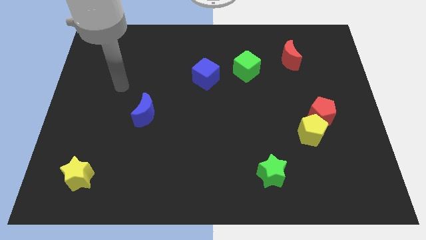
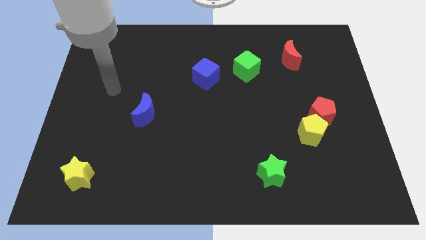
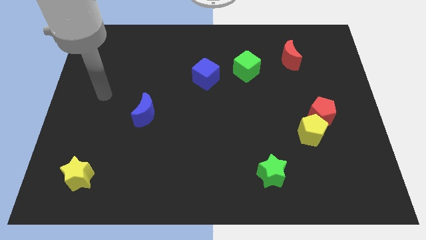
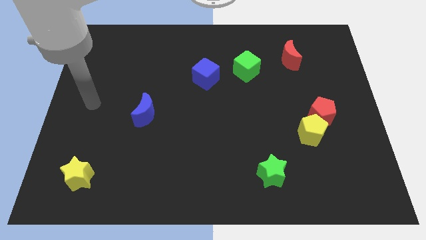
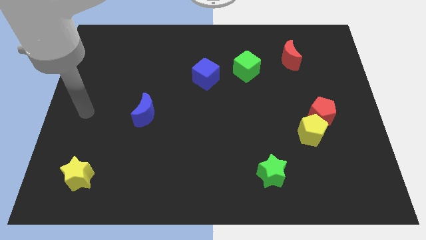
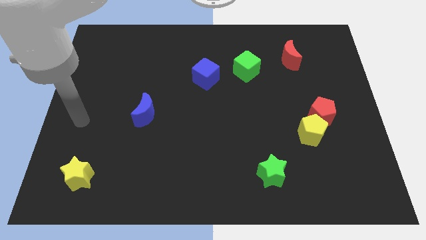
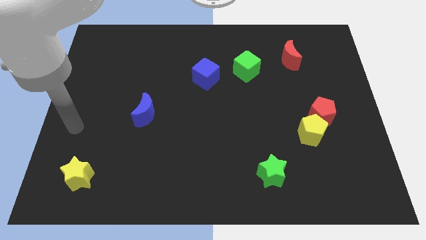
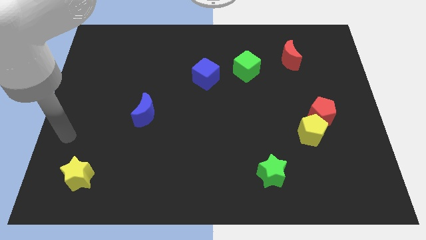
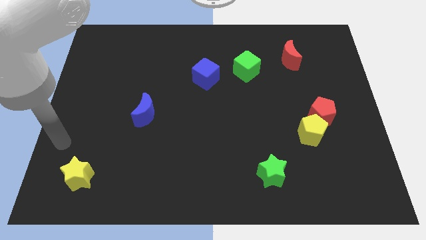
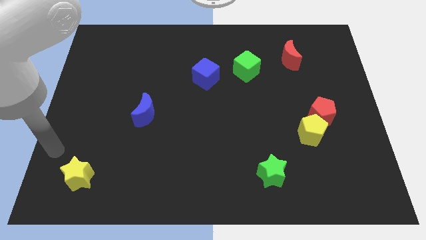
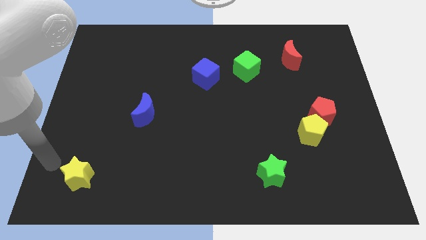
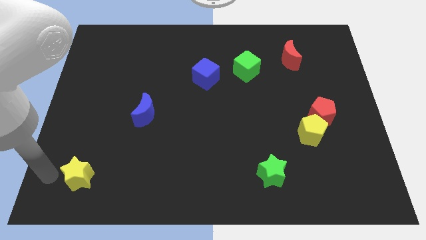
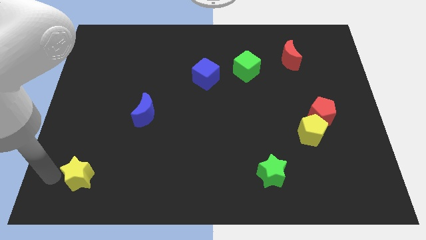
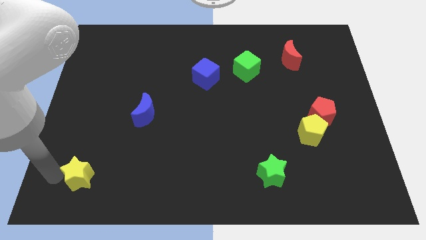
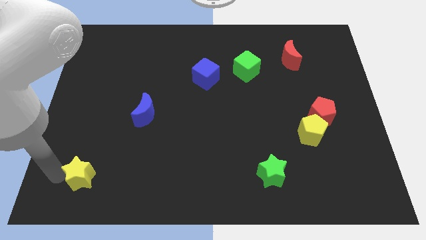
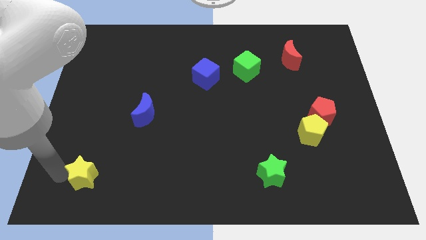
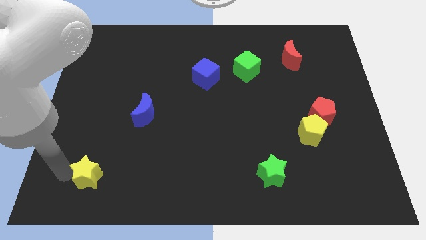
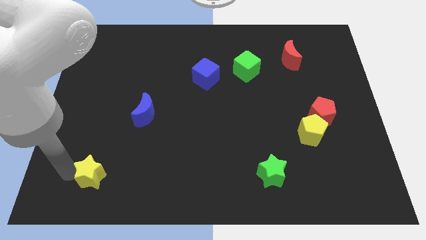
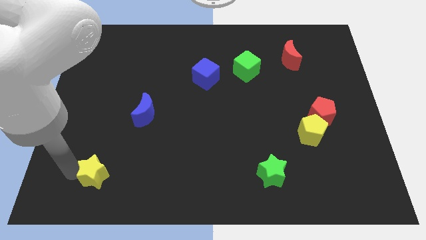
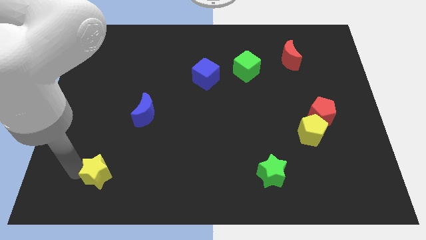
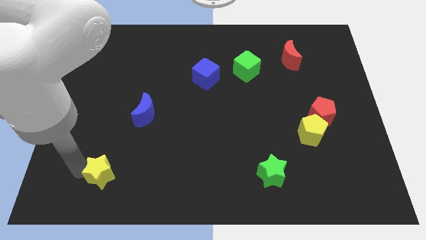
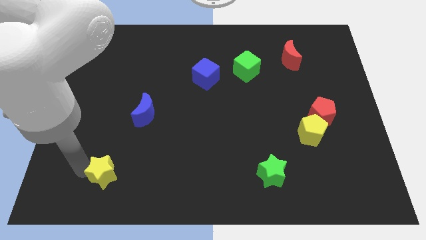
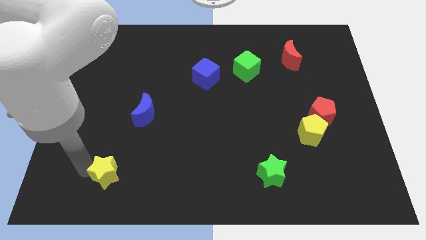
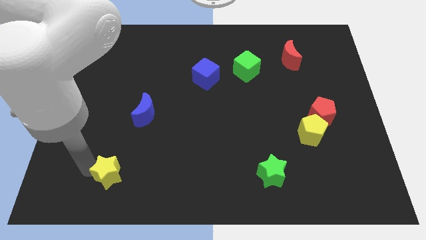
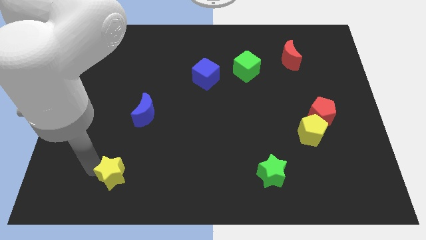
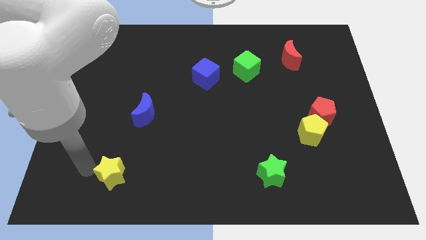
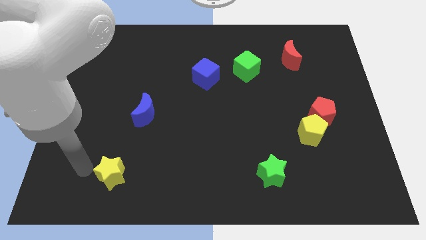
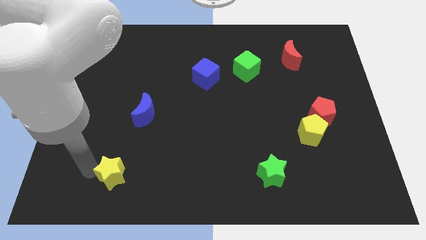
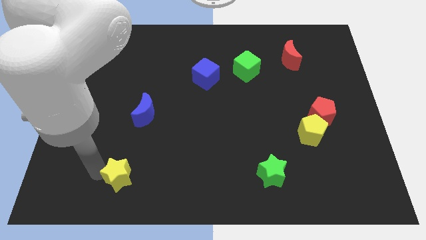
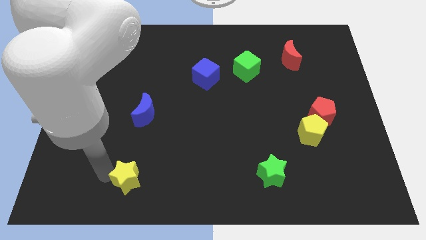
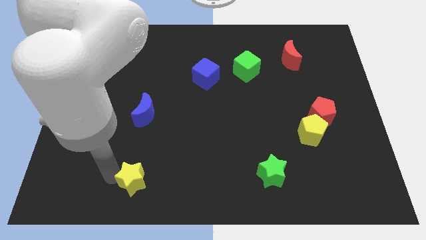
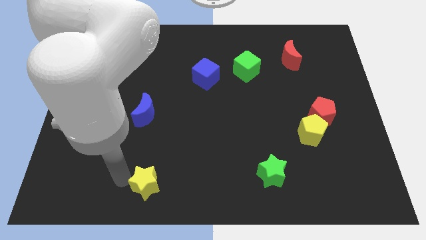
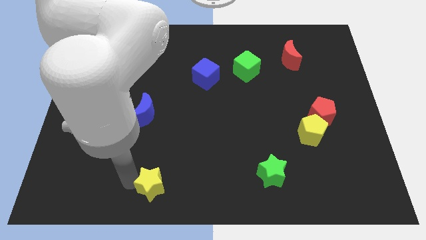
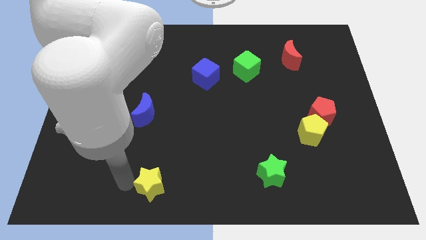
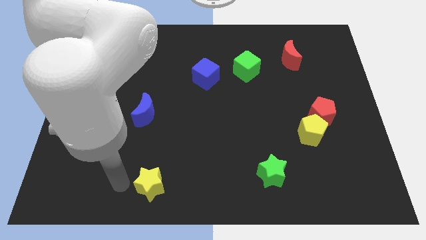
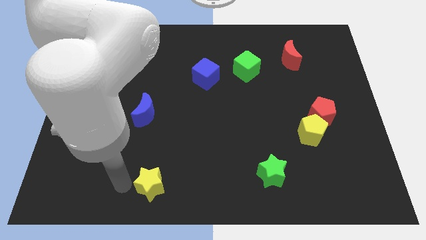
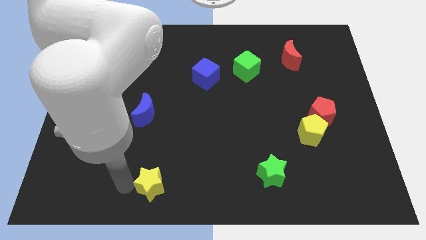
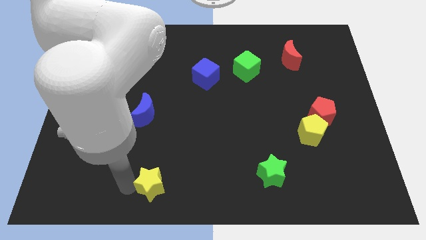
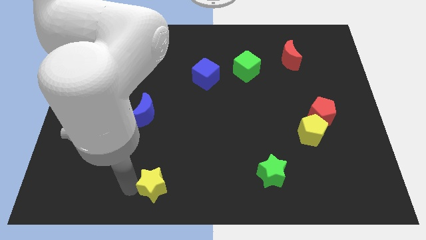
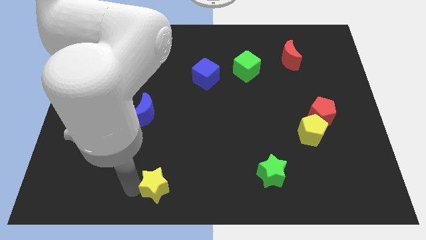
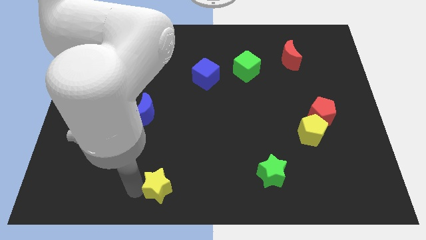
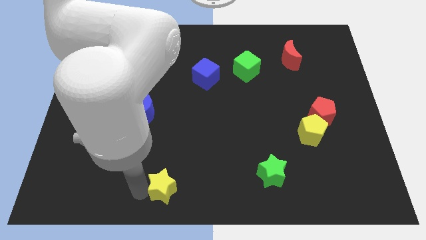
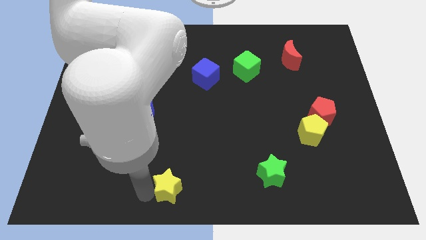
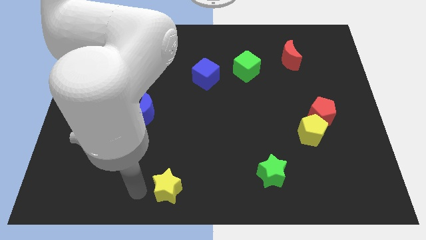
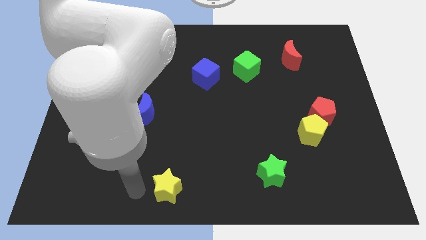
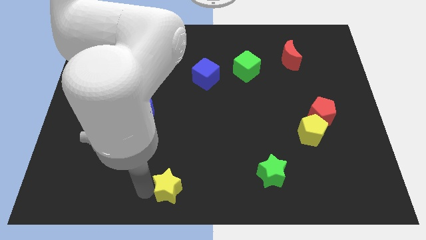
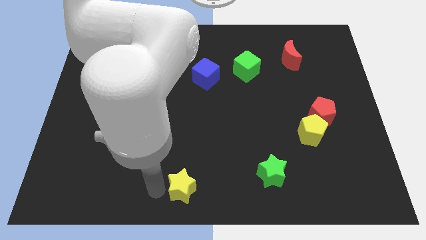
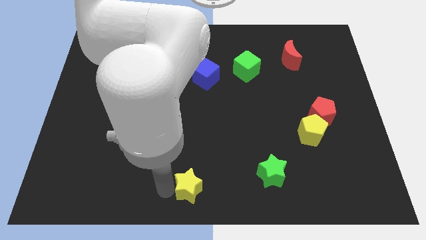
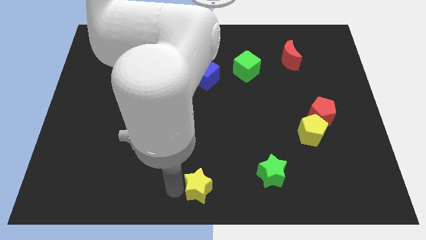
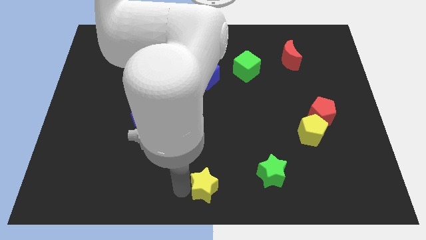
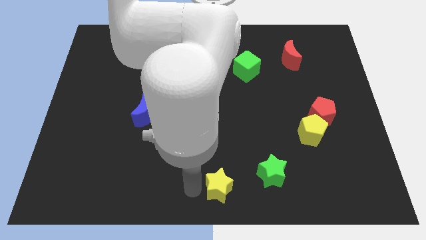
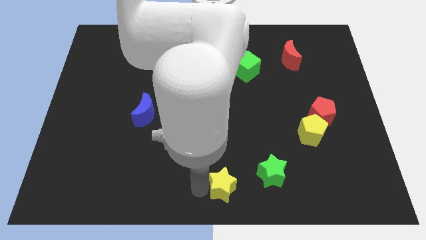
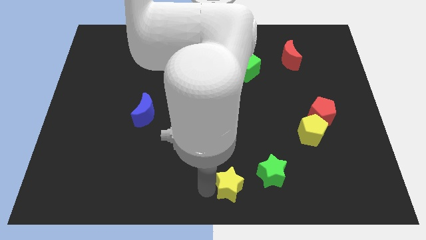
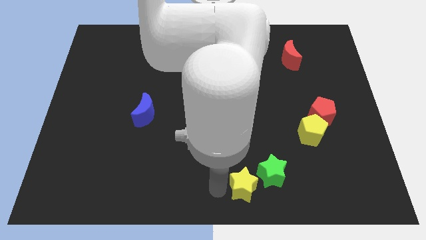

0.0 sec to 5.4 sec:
move the yellow star close to the green star
